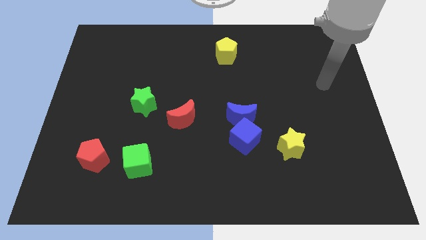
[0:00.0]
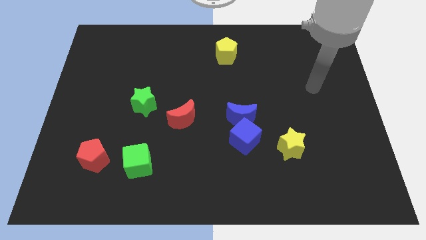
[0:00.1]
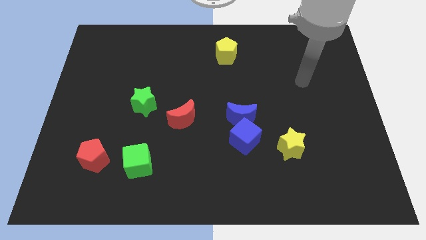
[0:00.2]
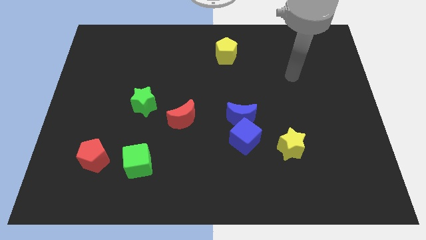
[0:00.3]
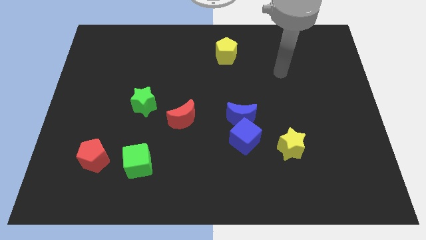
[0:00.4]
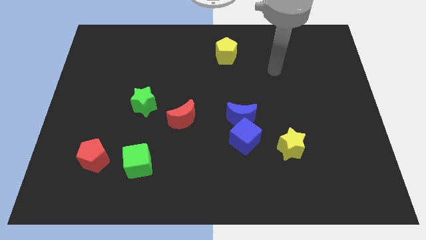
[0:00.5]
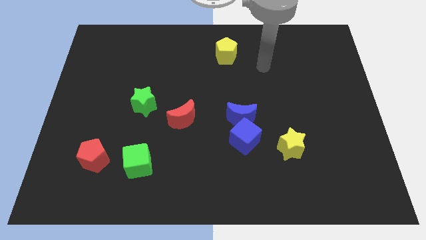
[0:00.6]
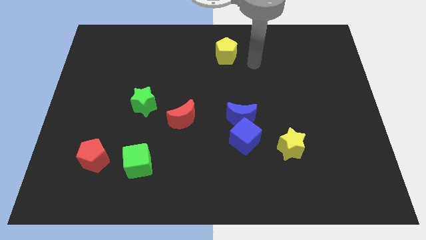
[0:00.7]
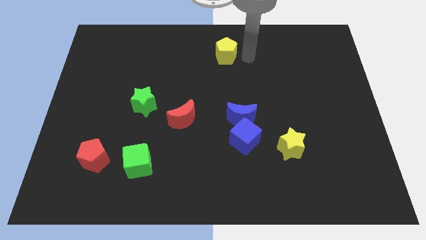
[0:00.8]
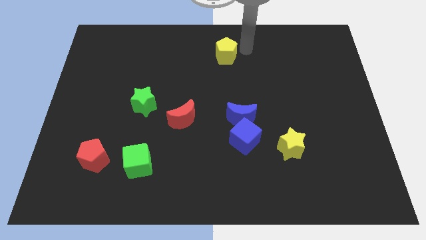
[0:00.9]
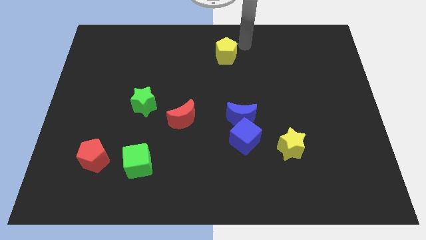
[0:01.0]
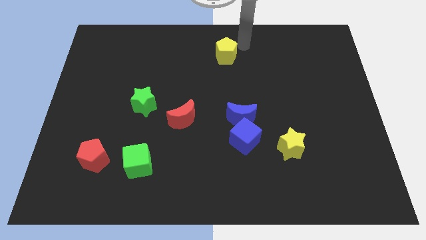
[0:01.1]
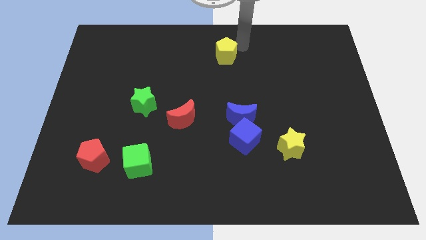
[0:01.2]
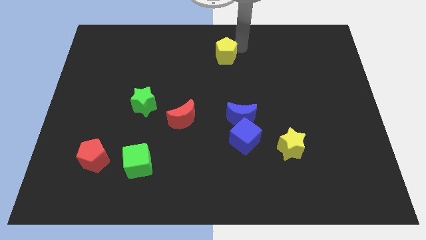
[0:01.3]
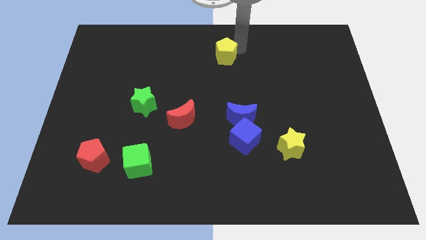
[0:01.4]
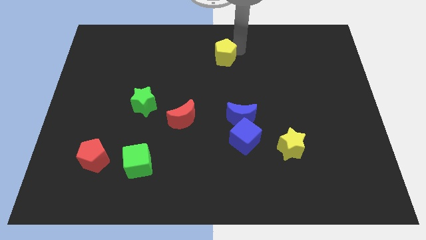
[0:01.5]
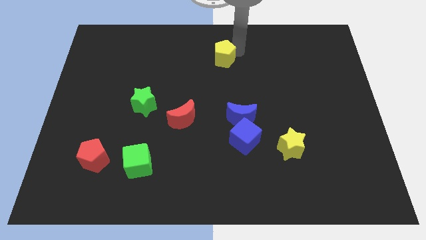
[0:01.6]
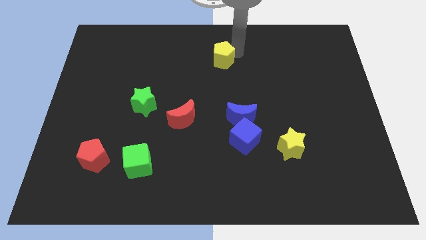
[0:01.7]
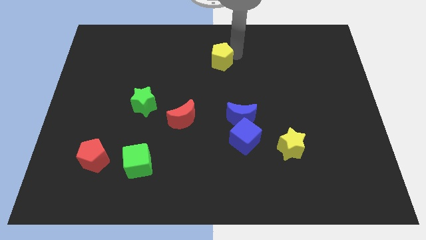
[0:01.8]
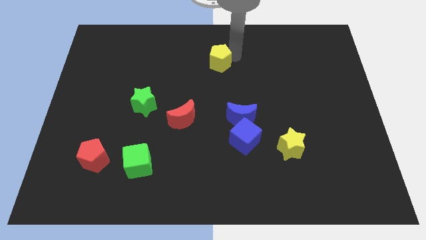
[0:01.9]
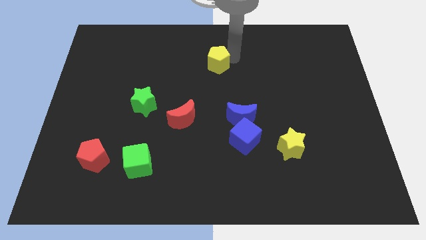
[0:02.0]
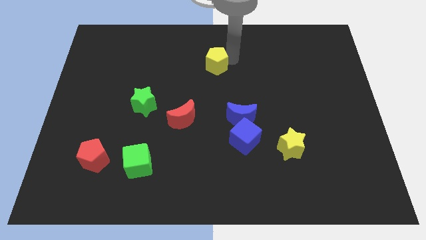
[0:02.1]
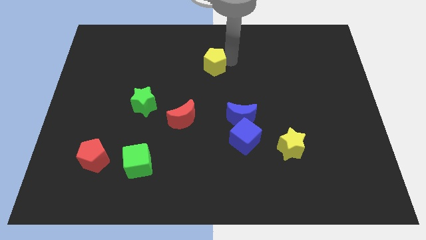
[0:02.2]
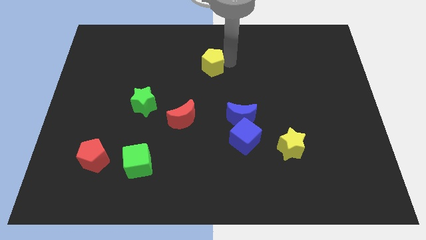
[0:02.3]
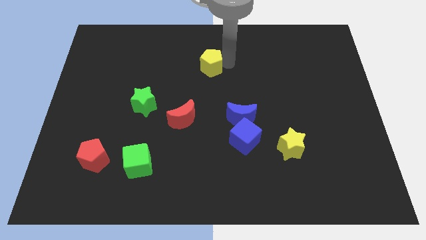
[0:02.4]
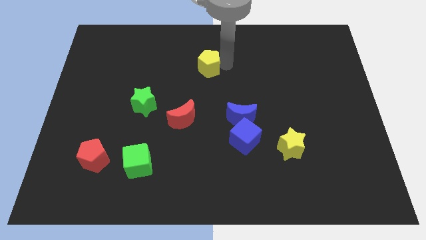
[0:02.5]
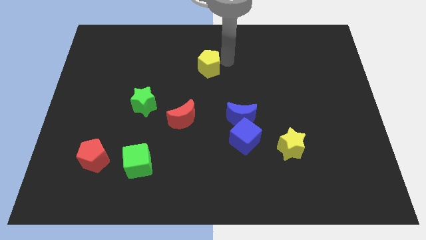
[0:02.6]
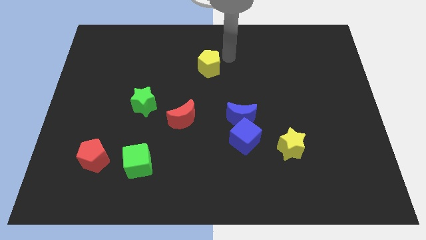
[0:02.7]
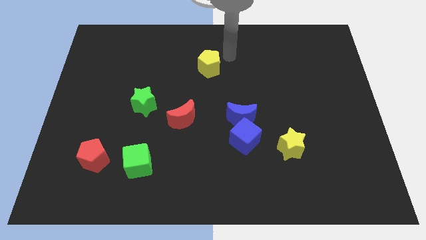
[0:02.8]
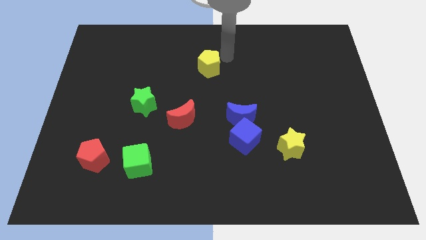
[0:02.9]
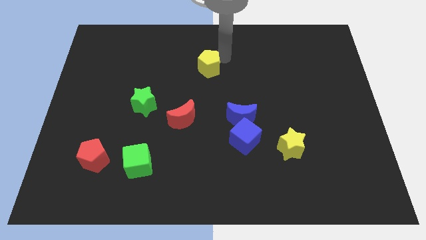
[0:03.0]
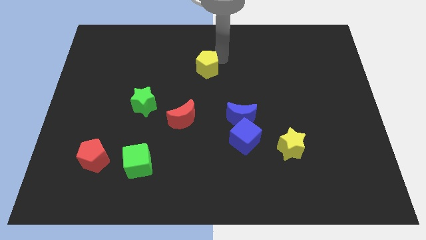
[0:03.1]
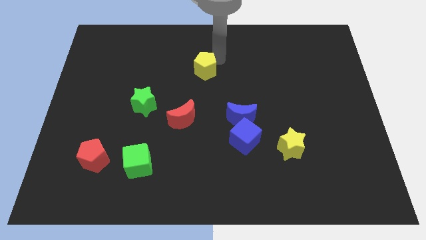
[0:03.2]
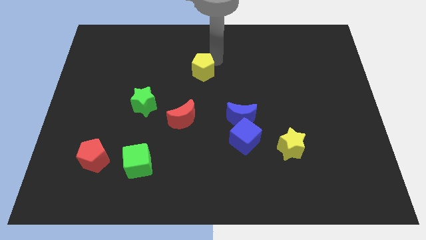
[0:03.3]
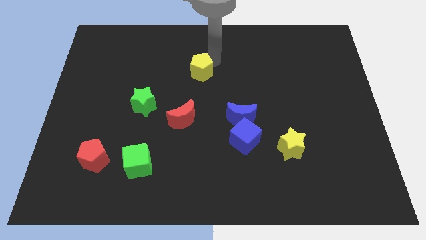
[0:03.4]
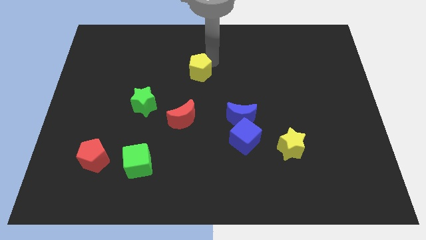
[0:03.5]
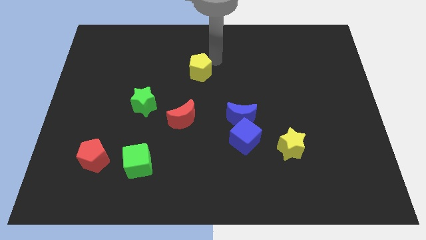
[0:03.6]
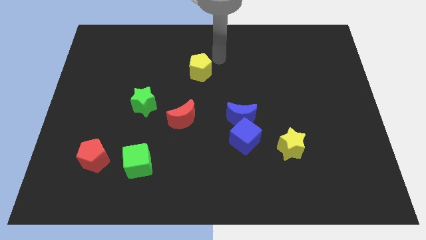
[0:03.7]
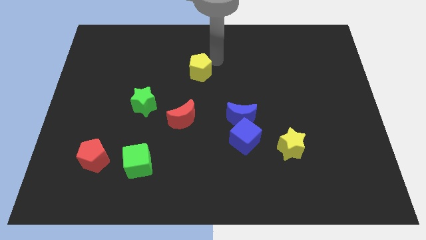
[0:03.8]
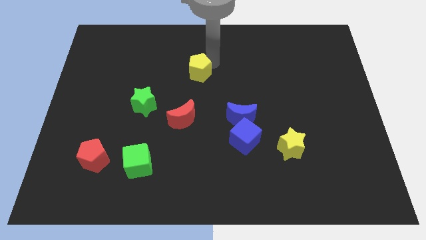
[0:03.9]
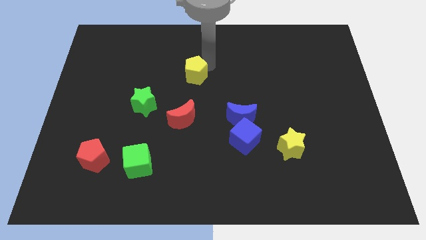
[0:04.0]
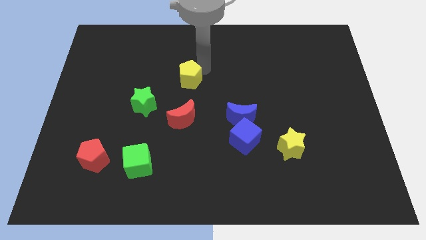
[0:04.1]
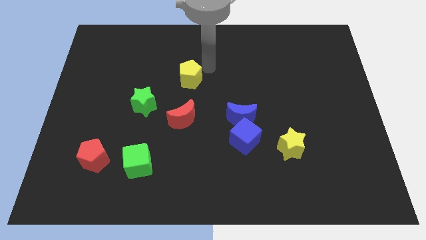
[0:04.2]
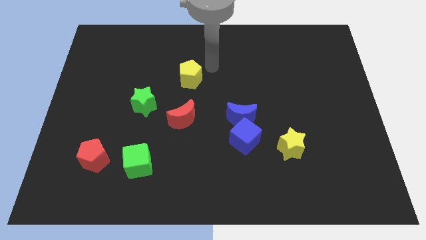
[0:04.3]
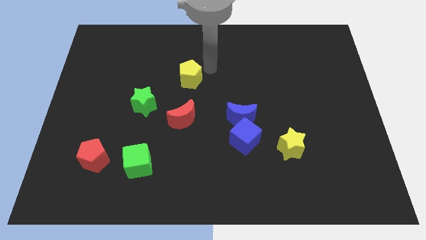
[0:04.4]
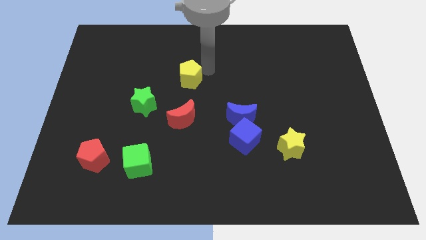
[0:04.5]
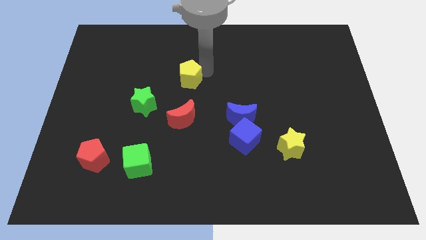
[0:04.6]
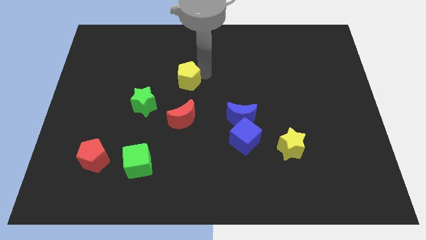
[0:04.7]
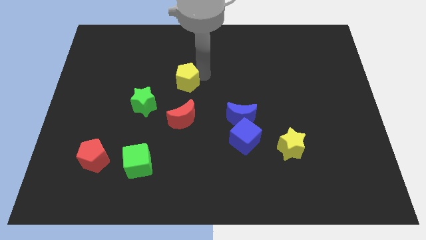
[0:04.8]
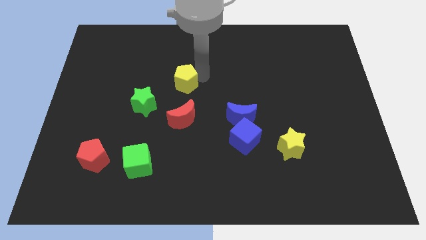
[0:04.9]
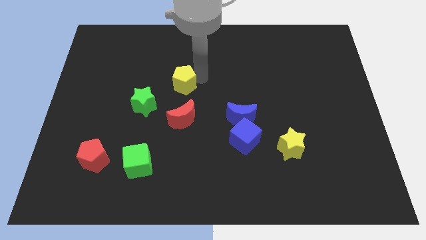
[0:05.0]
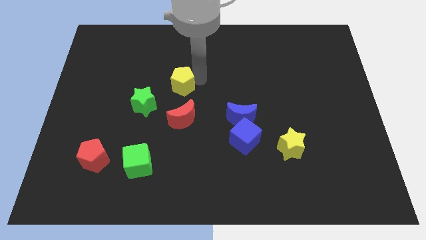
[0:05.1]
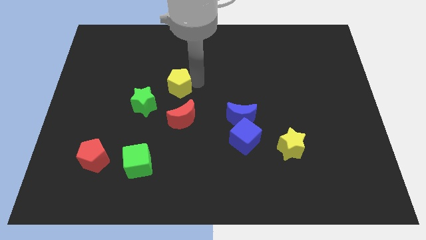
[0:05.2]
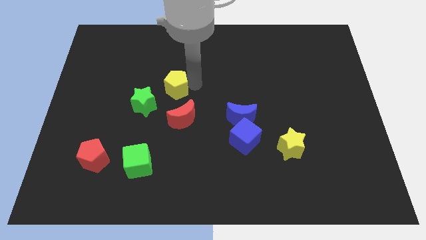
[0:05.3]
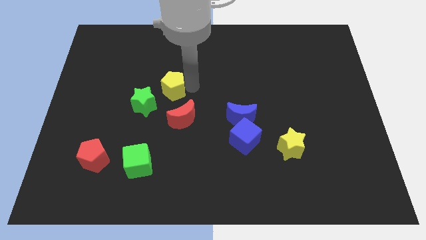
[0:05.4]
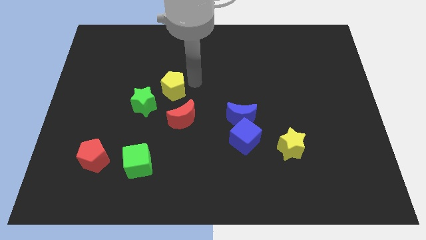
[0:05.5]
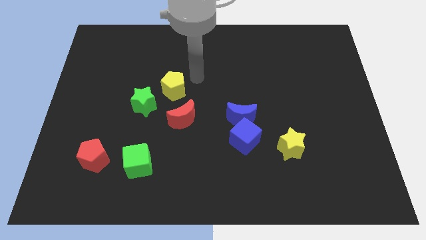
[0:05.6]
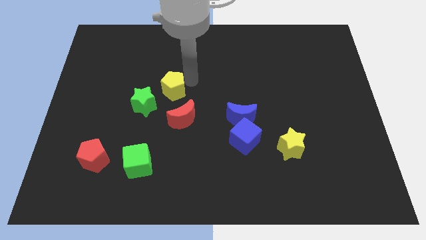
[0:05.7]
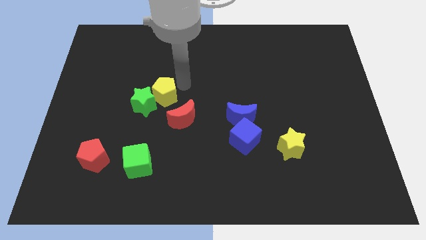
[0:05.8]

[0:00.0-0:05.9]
push the yellow pentagon to the green star

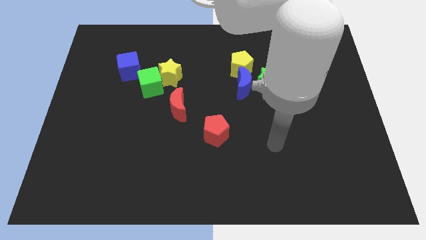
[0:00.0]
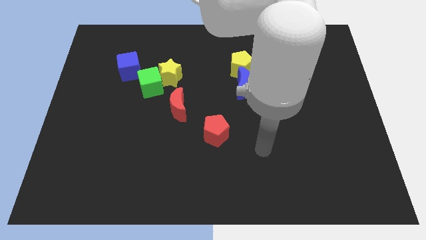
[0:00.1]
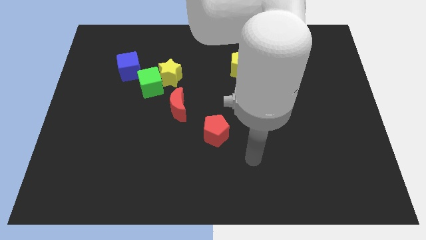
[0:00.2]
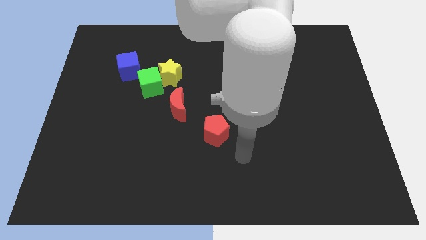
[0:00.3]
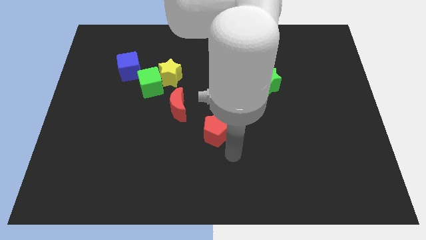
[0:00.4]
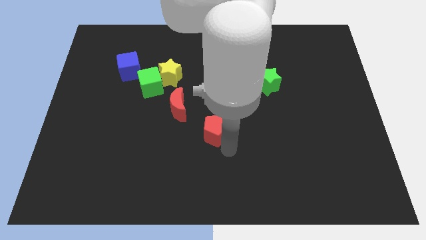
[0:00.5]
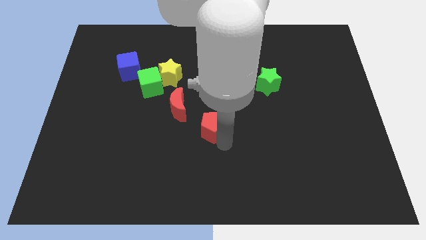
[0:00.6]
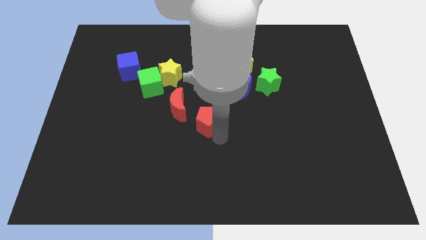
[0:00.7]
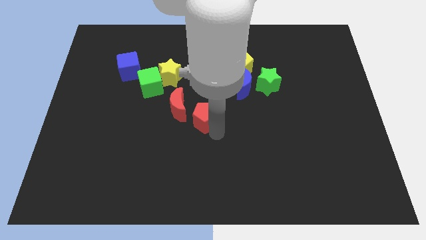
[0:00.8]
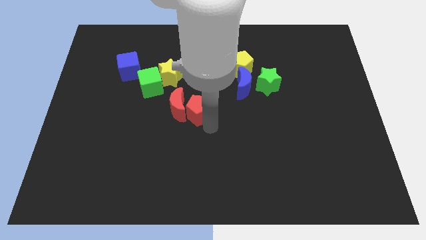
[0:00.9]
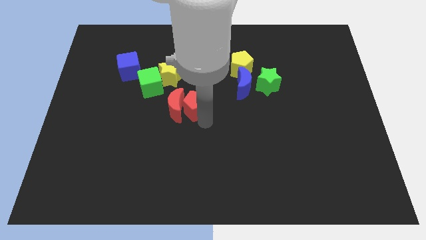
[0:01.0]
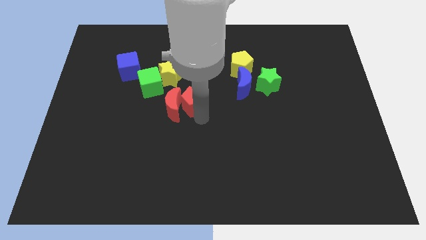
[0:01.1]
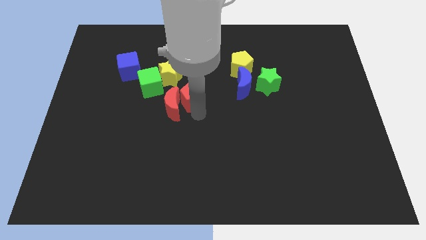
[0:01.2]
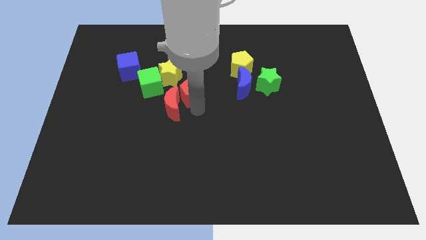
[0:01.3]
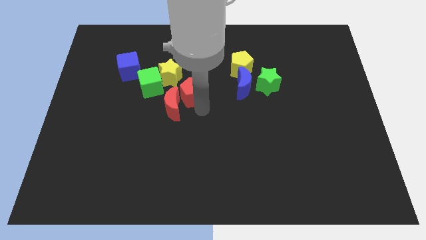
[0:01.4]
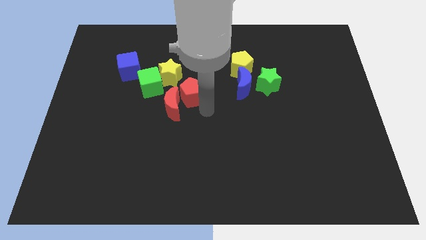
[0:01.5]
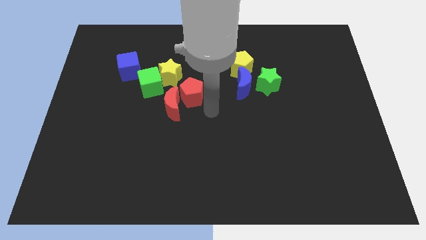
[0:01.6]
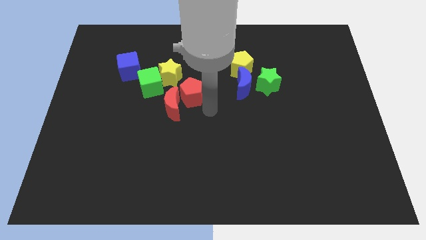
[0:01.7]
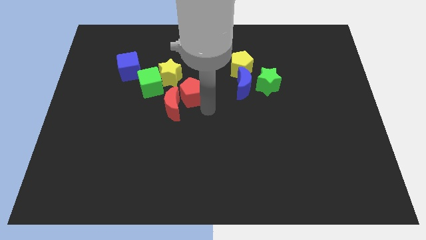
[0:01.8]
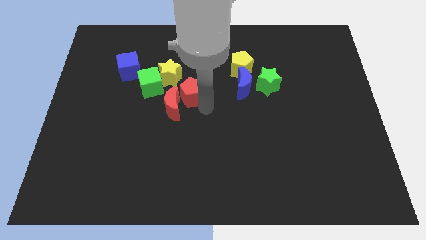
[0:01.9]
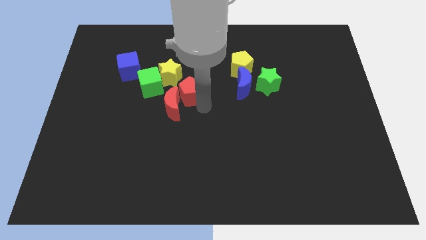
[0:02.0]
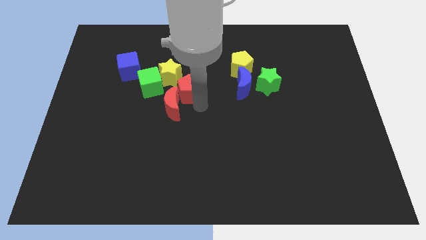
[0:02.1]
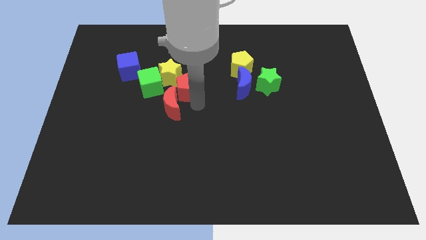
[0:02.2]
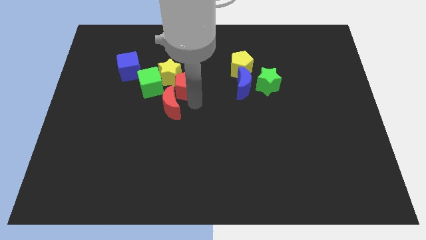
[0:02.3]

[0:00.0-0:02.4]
slide the red pentagon towards the yellow star
